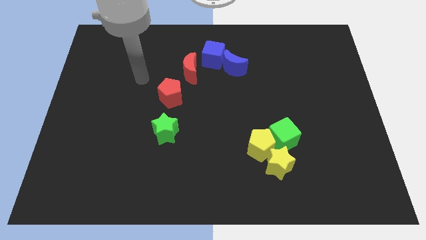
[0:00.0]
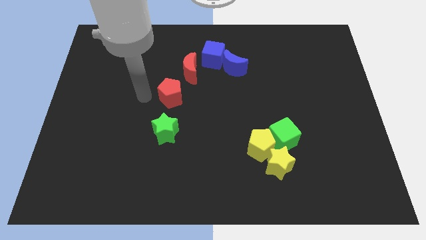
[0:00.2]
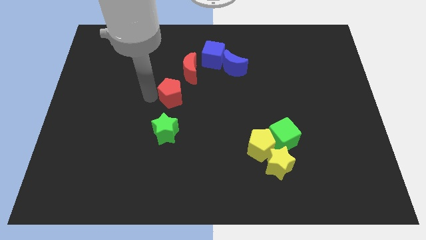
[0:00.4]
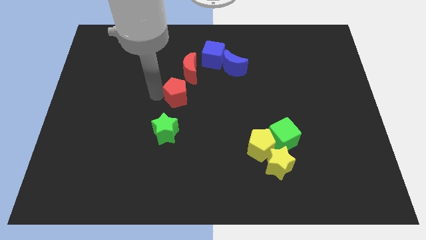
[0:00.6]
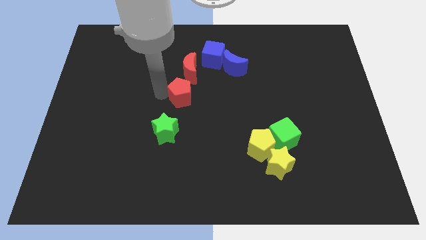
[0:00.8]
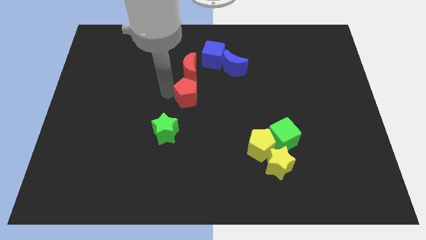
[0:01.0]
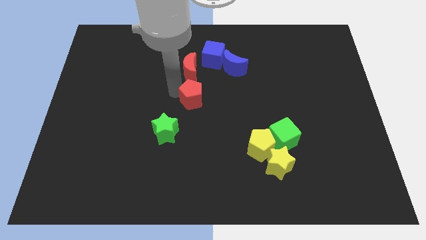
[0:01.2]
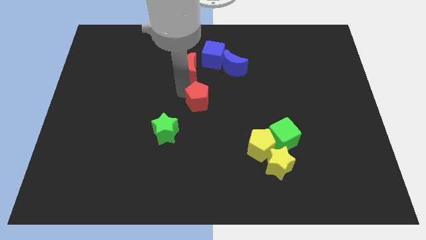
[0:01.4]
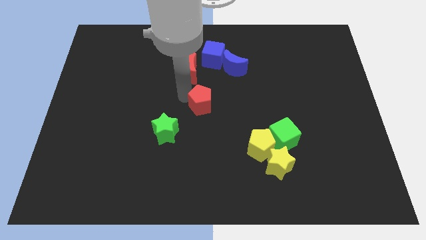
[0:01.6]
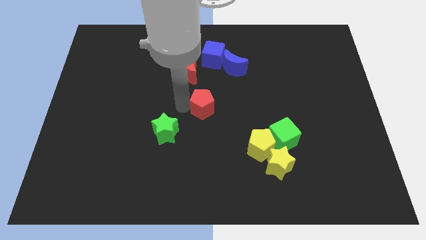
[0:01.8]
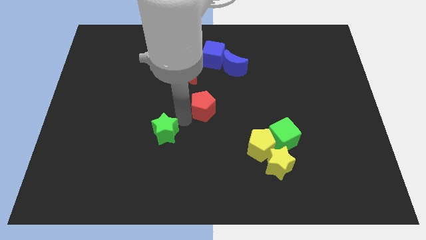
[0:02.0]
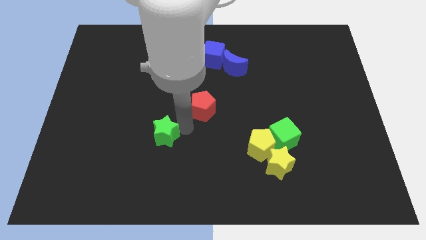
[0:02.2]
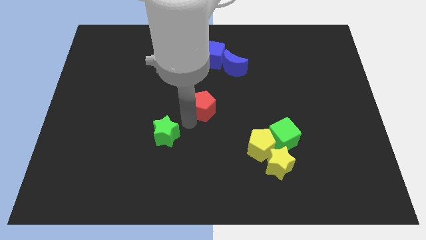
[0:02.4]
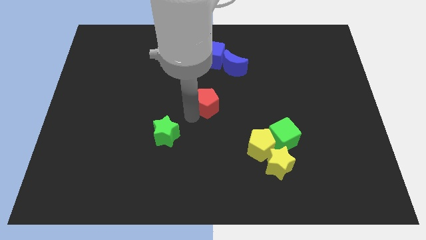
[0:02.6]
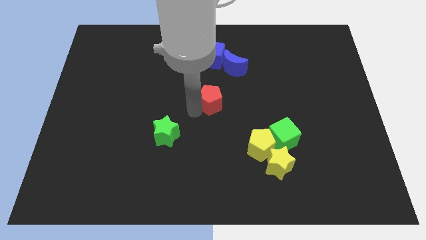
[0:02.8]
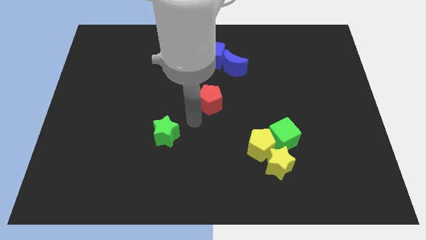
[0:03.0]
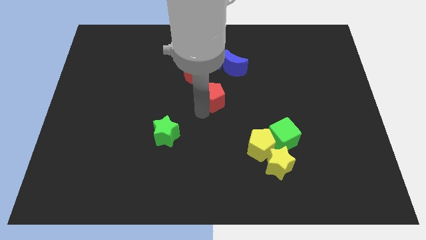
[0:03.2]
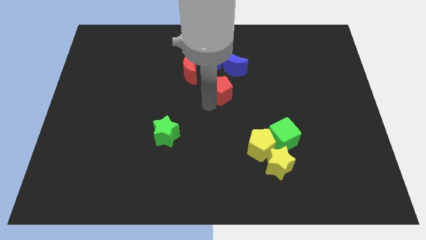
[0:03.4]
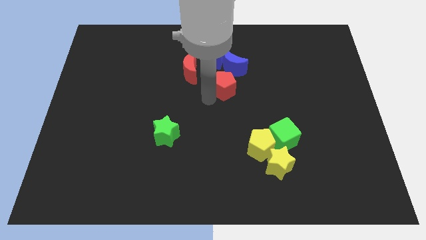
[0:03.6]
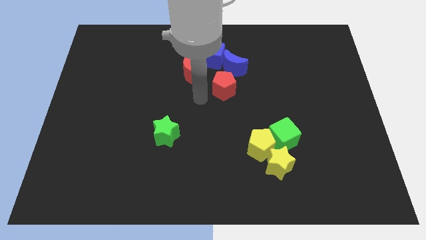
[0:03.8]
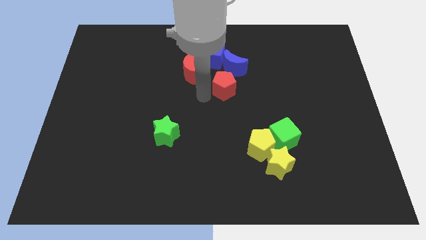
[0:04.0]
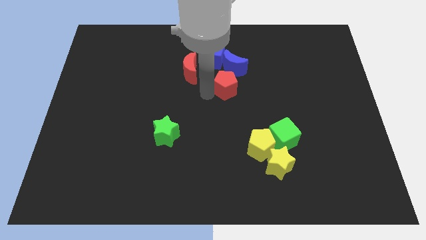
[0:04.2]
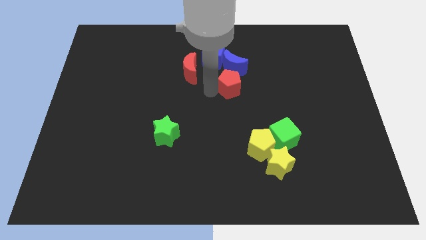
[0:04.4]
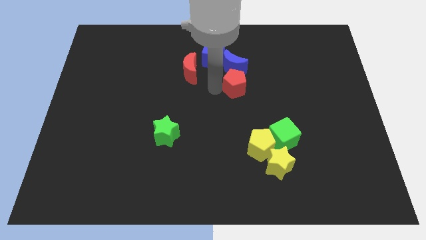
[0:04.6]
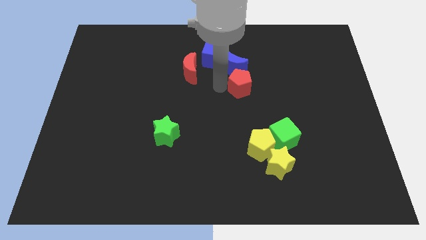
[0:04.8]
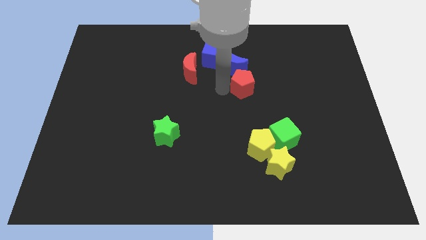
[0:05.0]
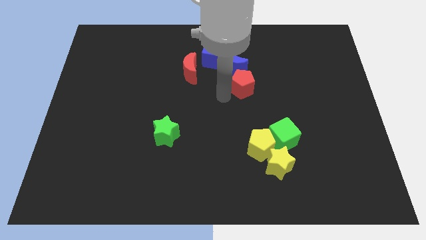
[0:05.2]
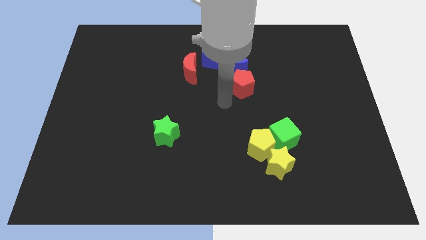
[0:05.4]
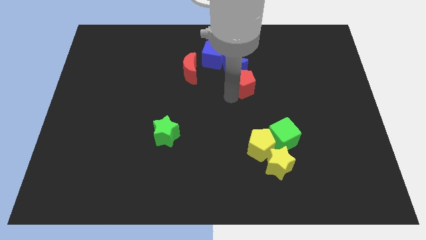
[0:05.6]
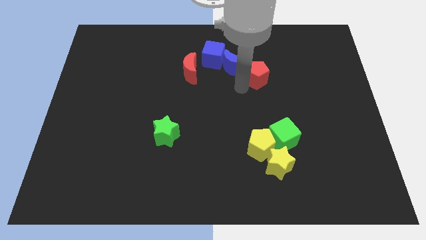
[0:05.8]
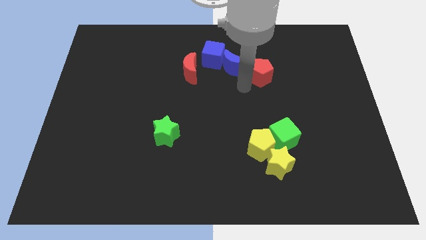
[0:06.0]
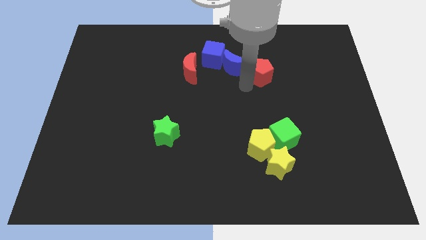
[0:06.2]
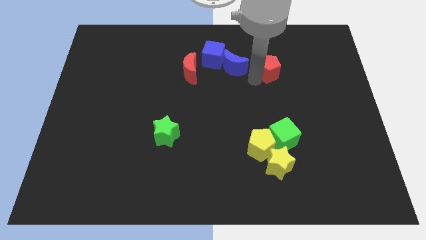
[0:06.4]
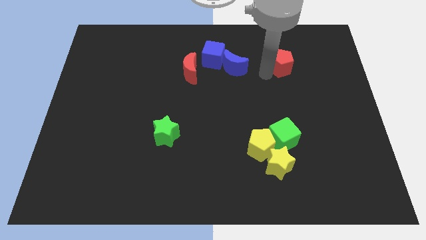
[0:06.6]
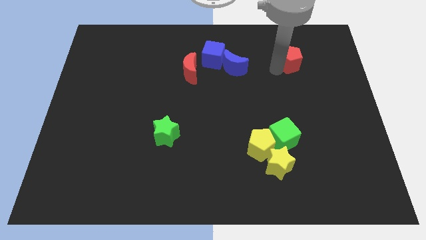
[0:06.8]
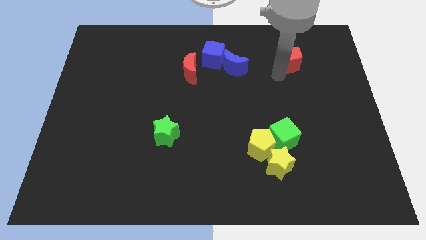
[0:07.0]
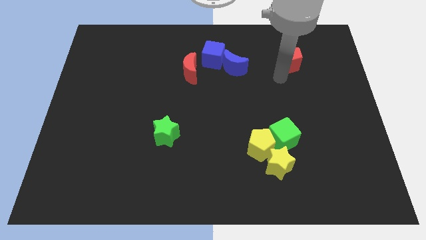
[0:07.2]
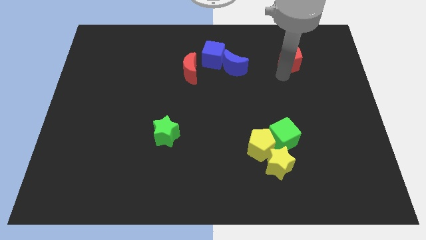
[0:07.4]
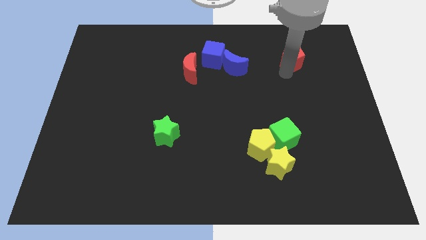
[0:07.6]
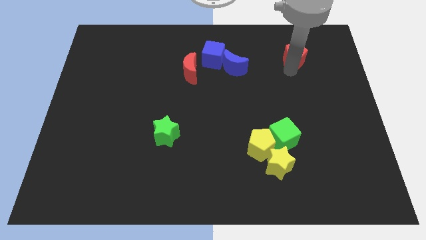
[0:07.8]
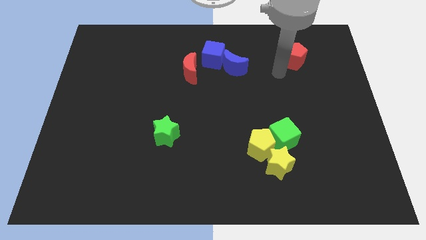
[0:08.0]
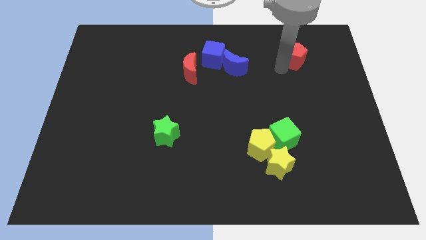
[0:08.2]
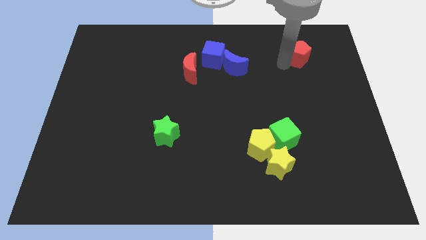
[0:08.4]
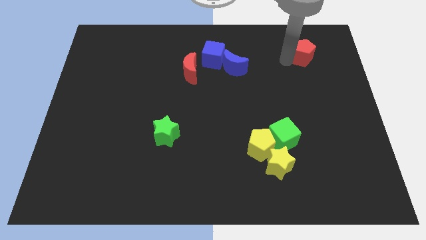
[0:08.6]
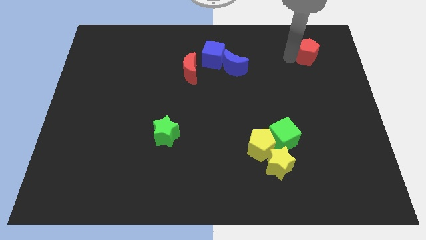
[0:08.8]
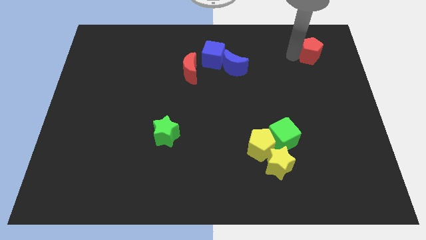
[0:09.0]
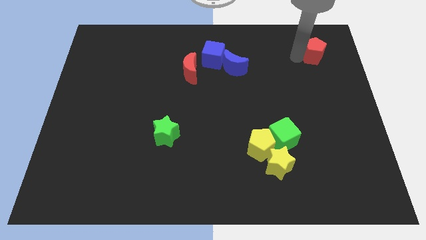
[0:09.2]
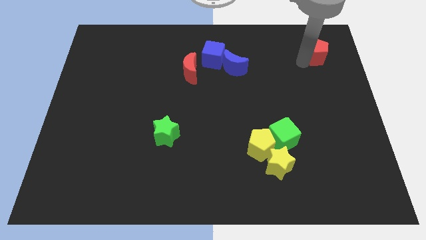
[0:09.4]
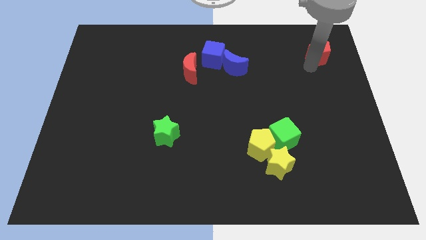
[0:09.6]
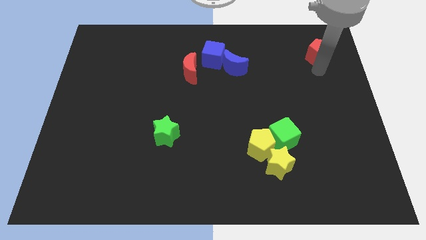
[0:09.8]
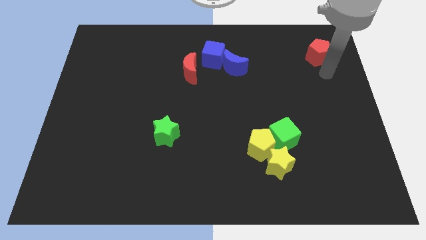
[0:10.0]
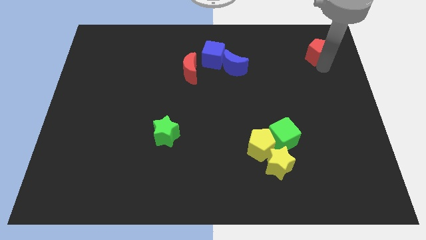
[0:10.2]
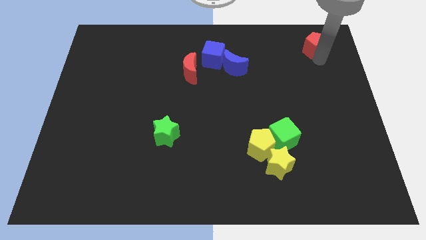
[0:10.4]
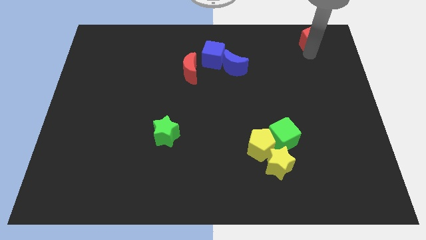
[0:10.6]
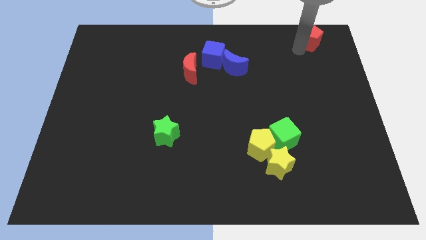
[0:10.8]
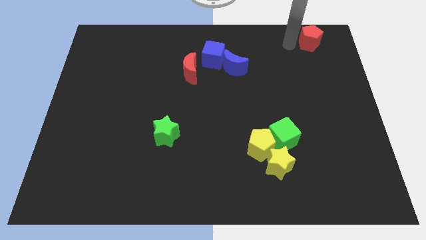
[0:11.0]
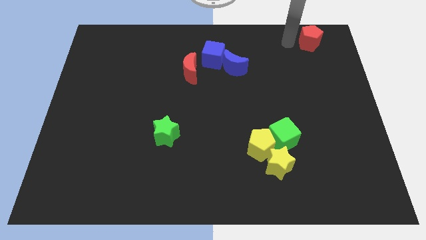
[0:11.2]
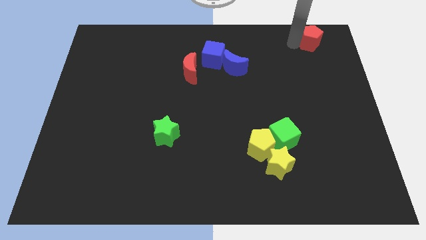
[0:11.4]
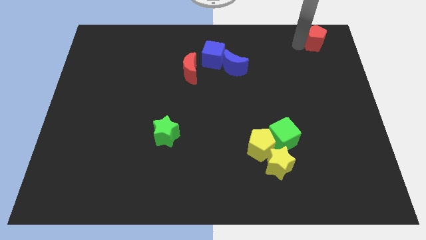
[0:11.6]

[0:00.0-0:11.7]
put the red pentagon to the top right of the board
